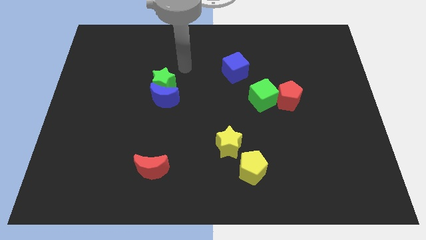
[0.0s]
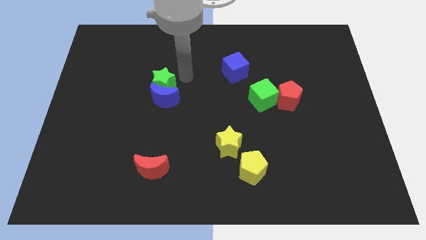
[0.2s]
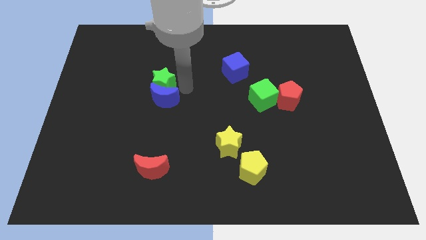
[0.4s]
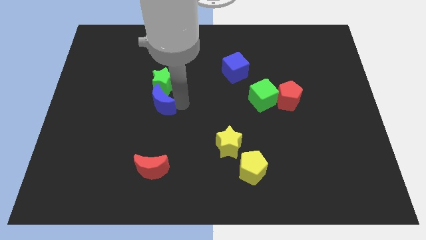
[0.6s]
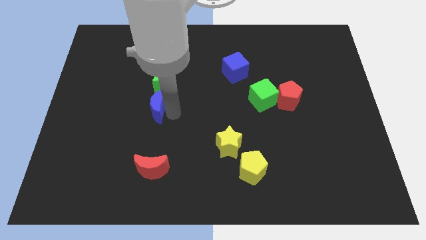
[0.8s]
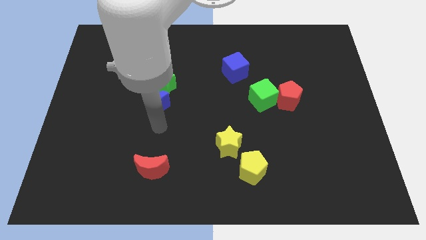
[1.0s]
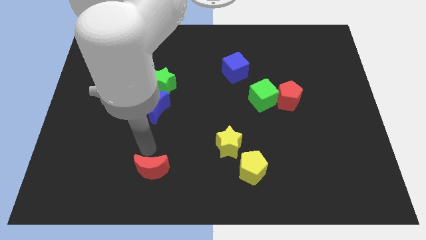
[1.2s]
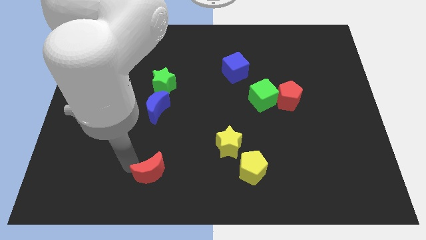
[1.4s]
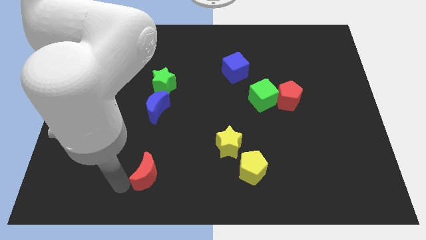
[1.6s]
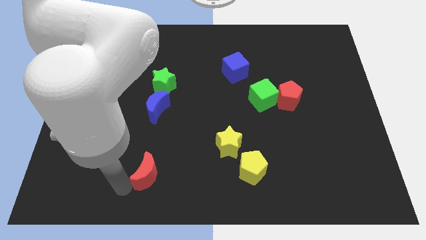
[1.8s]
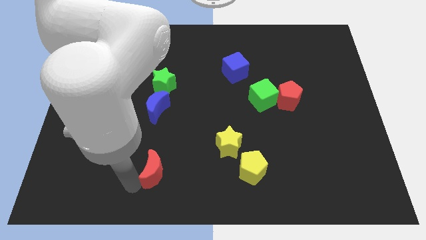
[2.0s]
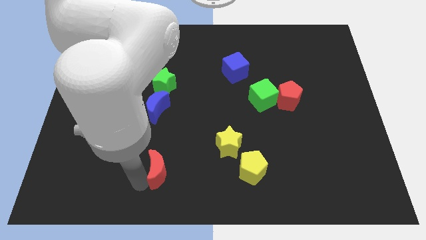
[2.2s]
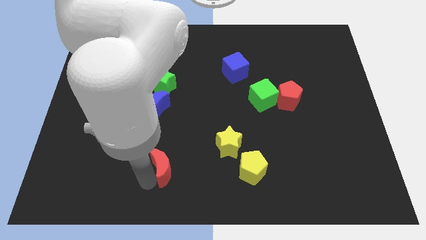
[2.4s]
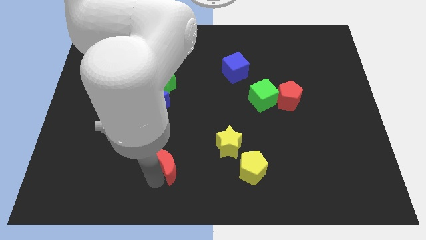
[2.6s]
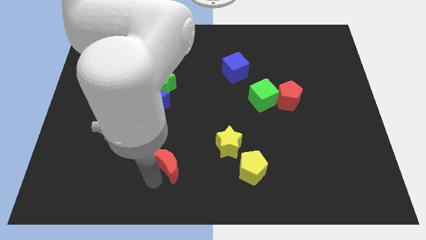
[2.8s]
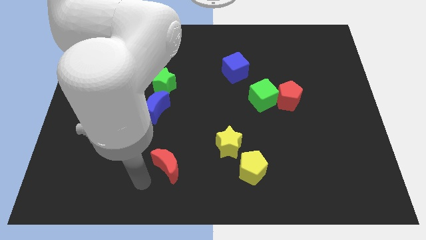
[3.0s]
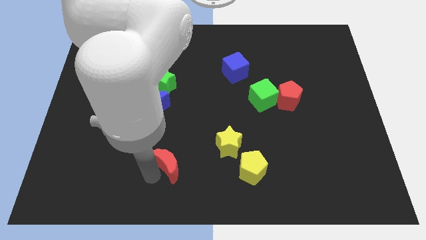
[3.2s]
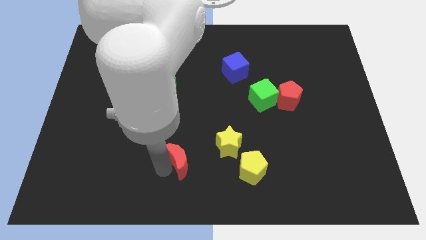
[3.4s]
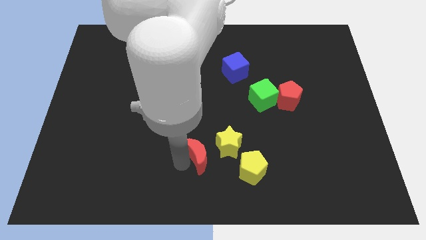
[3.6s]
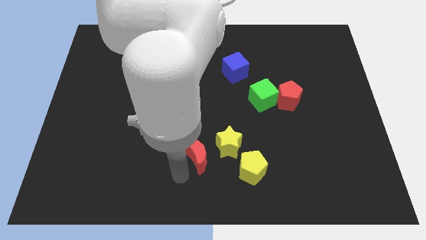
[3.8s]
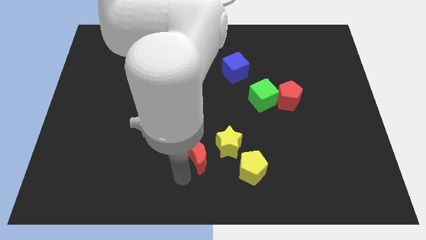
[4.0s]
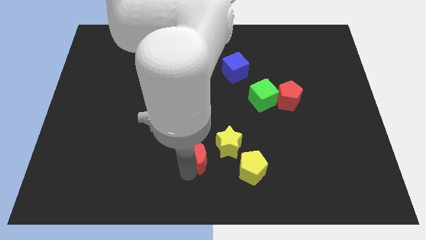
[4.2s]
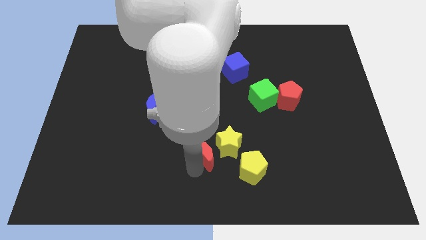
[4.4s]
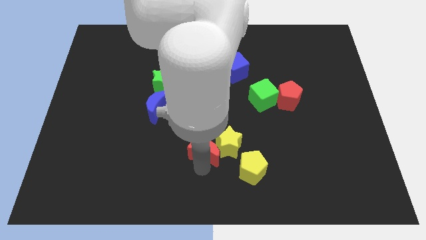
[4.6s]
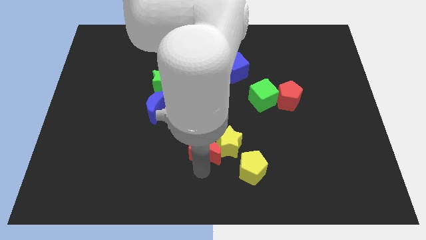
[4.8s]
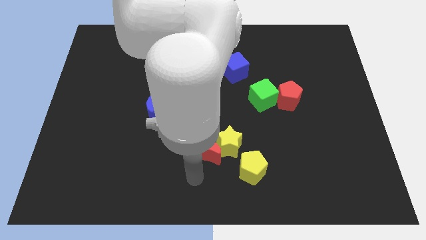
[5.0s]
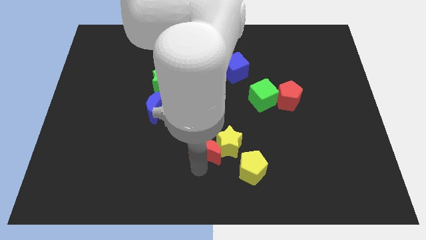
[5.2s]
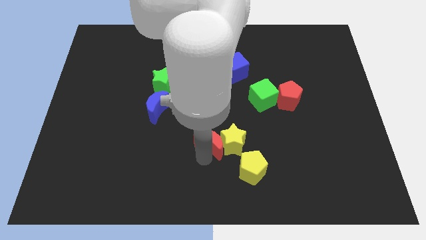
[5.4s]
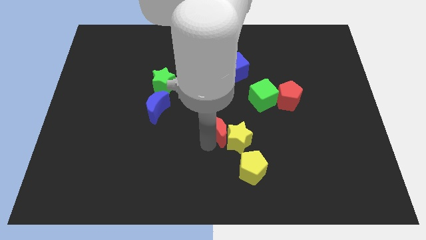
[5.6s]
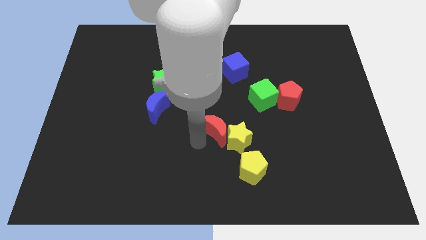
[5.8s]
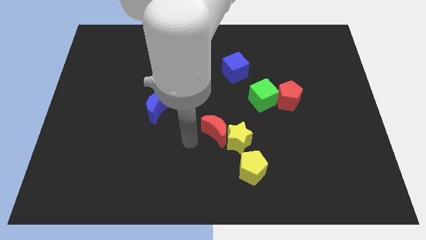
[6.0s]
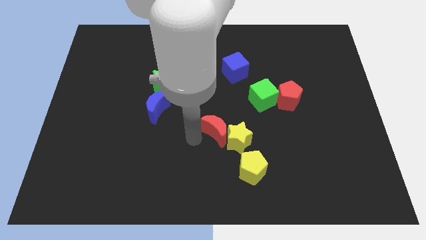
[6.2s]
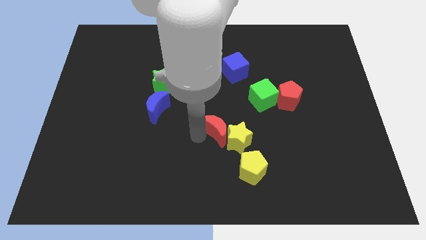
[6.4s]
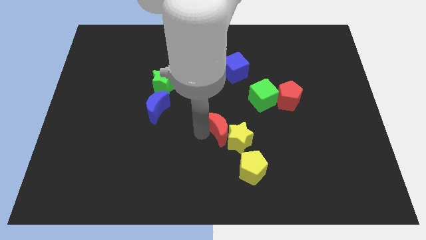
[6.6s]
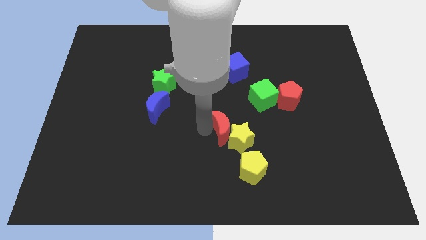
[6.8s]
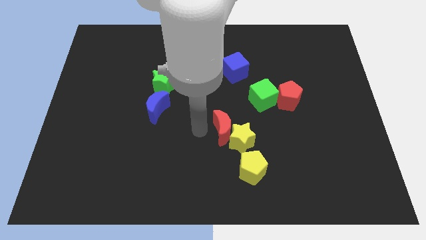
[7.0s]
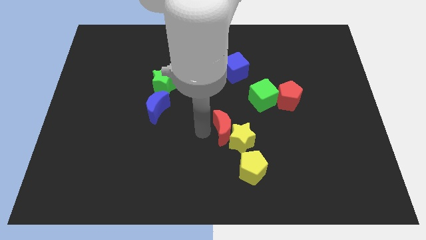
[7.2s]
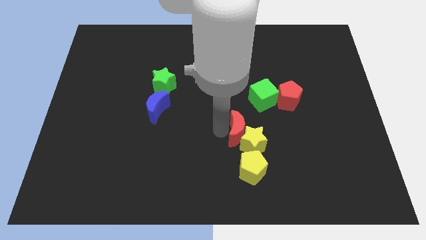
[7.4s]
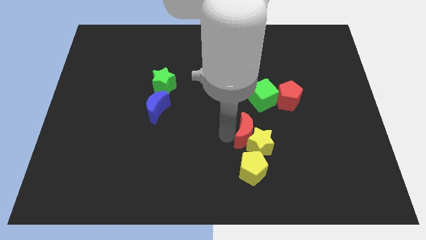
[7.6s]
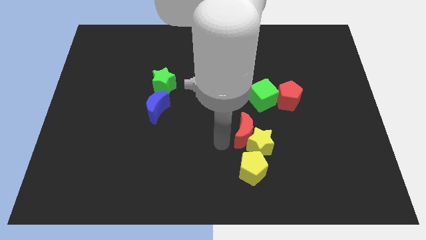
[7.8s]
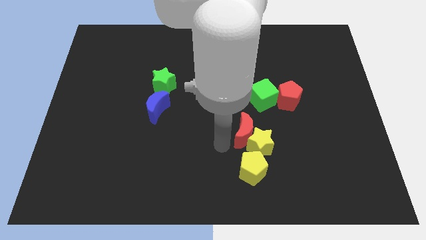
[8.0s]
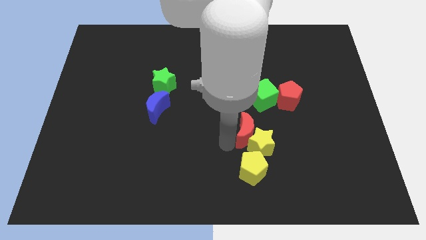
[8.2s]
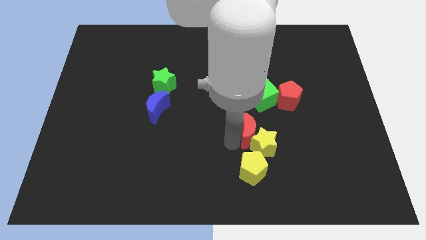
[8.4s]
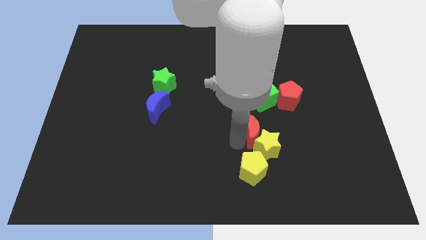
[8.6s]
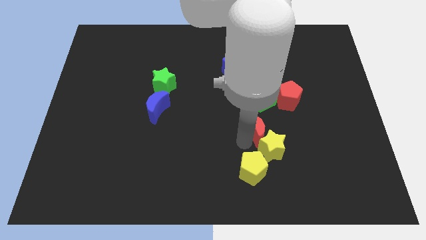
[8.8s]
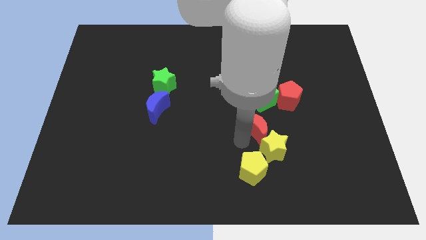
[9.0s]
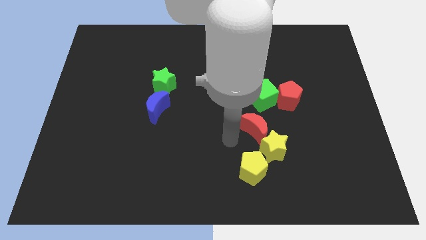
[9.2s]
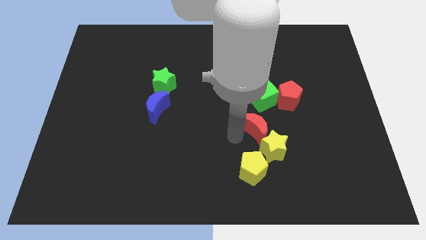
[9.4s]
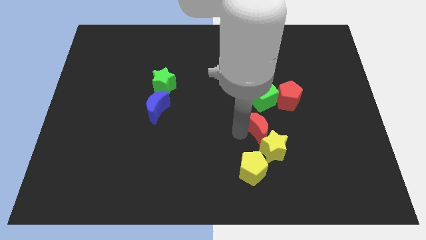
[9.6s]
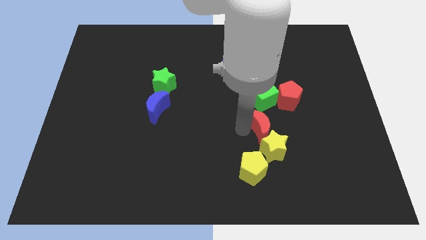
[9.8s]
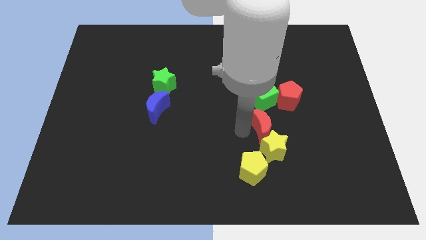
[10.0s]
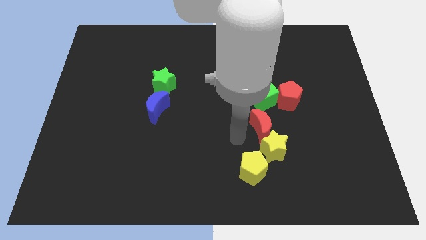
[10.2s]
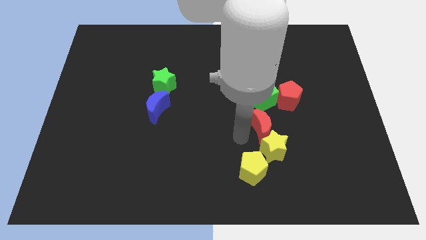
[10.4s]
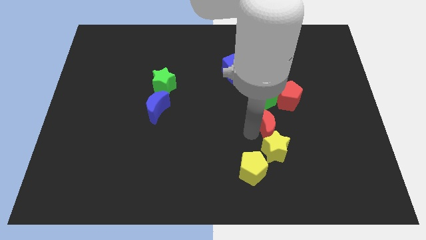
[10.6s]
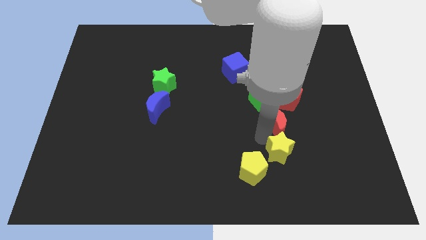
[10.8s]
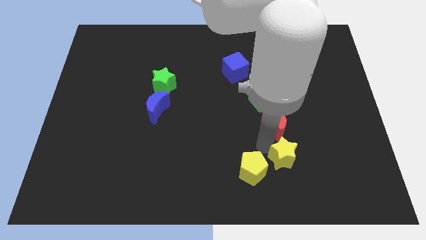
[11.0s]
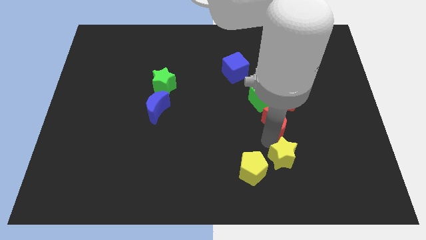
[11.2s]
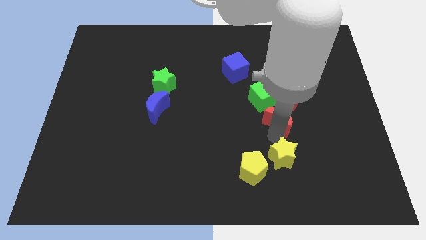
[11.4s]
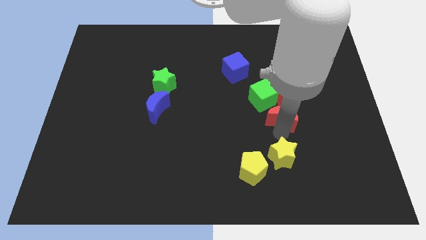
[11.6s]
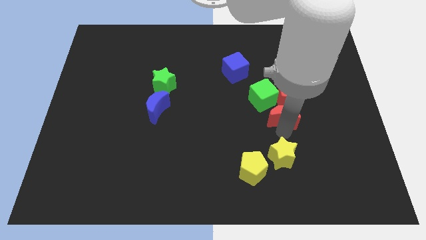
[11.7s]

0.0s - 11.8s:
push the red moon towards the red pentagon

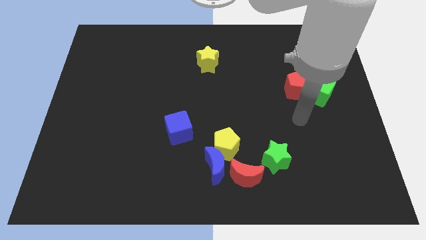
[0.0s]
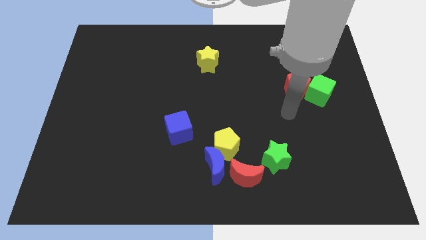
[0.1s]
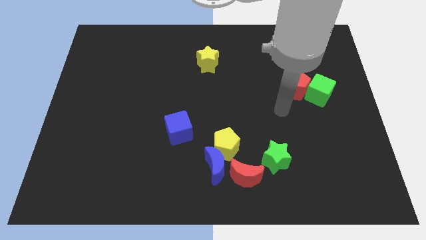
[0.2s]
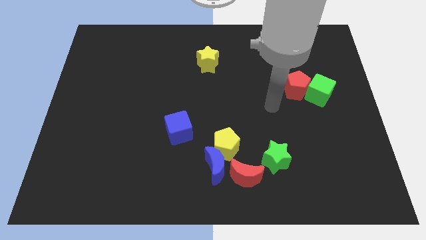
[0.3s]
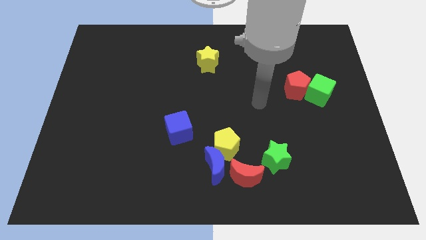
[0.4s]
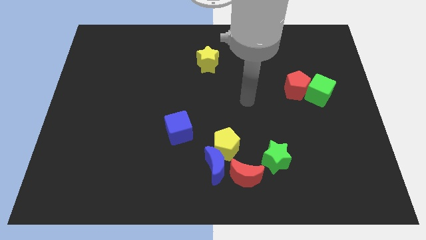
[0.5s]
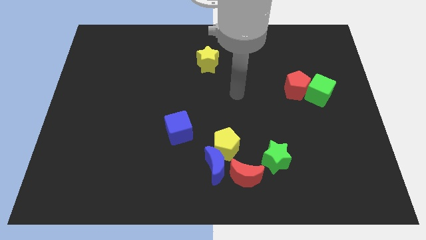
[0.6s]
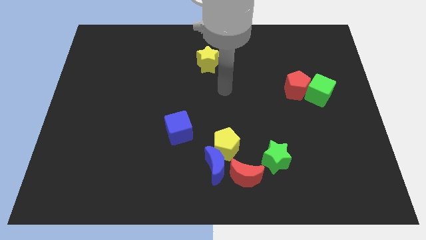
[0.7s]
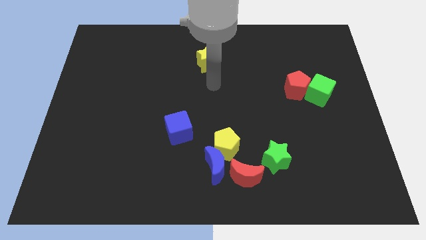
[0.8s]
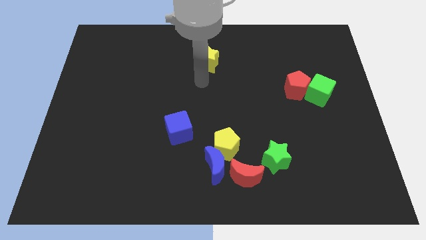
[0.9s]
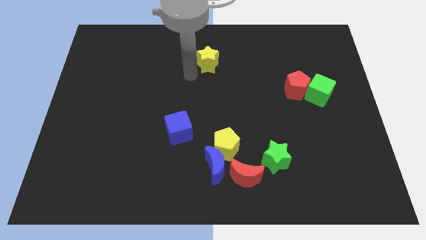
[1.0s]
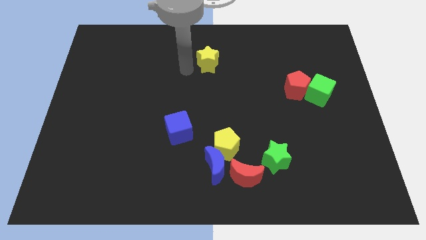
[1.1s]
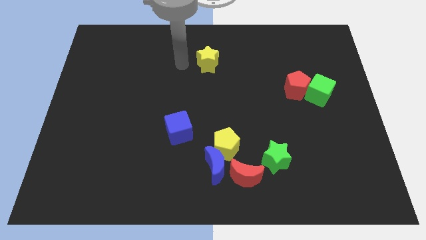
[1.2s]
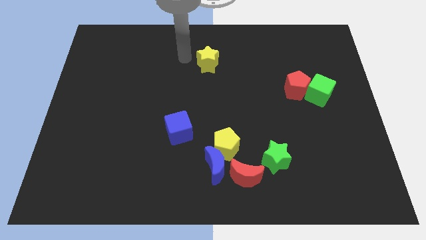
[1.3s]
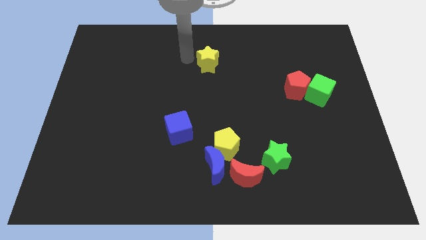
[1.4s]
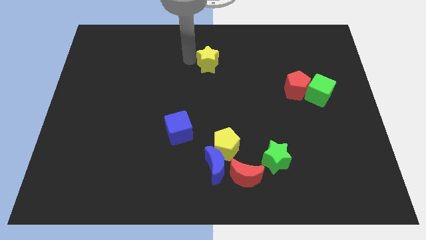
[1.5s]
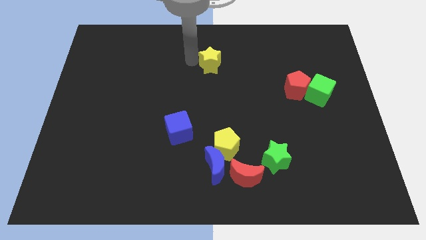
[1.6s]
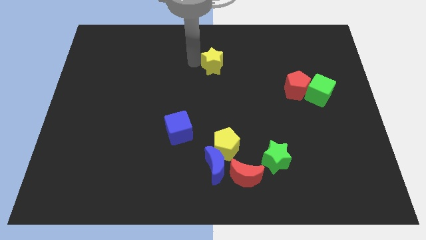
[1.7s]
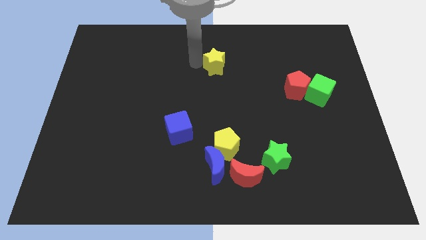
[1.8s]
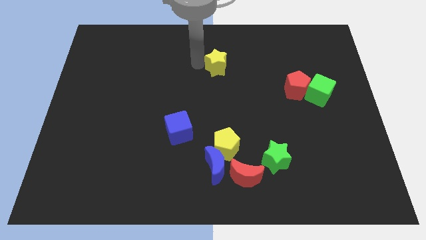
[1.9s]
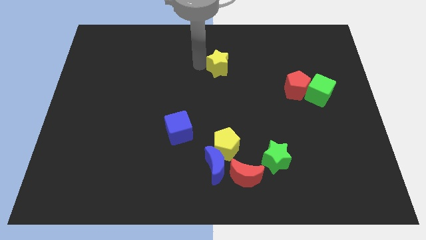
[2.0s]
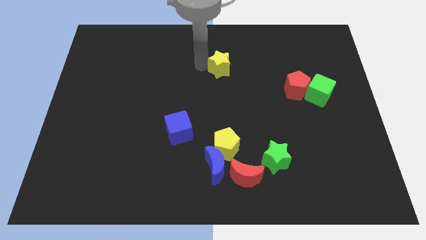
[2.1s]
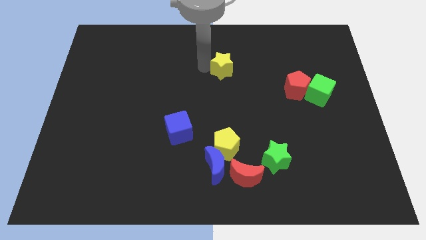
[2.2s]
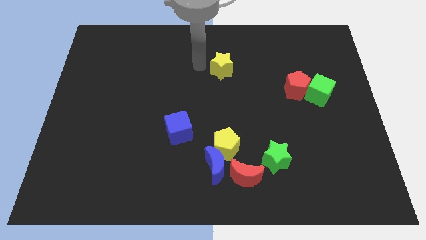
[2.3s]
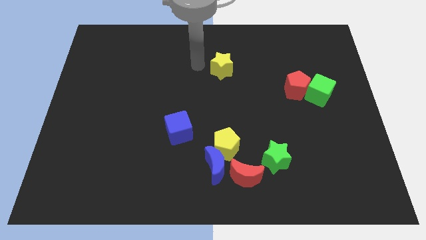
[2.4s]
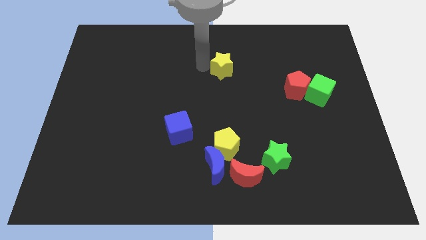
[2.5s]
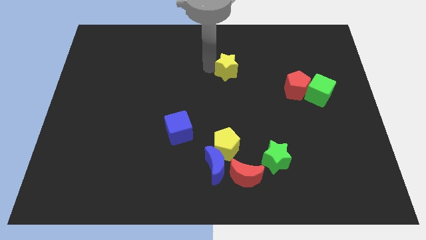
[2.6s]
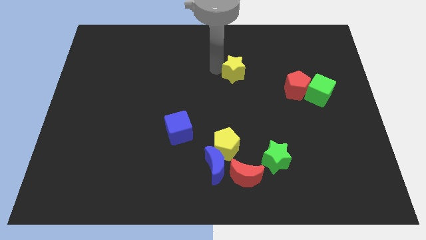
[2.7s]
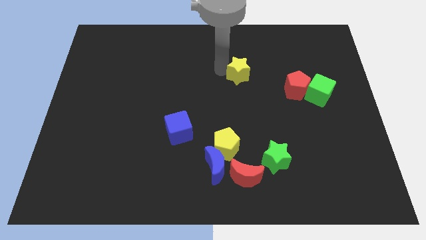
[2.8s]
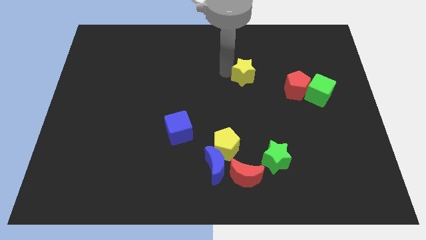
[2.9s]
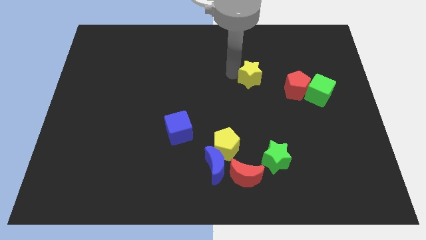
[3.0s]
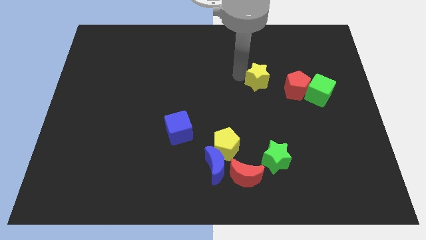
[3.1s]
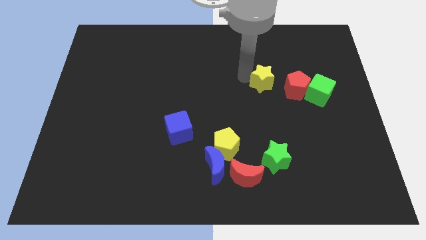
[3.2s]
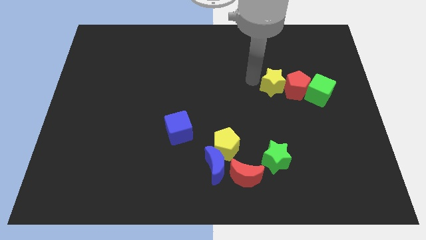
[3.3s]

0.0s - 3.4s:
put the yellow star next to the red pentagon
